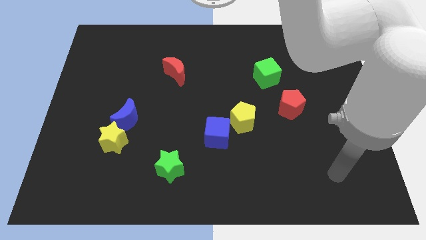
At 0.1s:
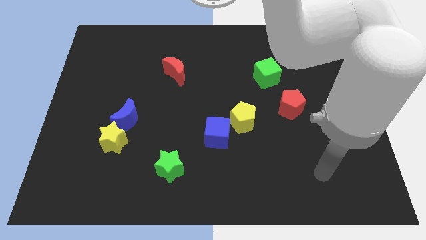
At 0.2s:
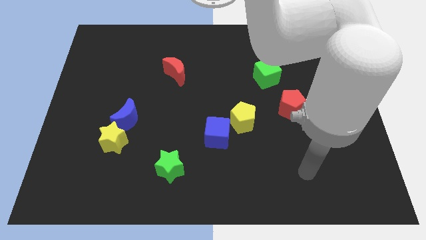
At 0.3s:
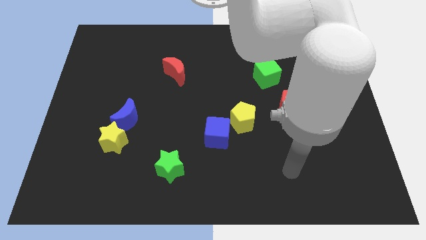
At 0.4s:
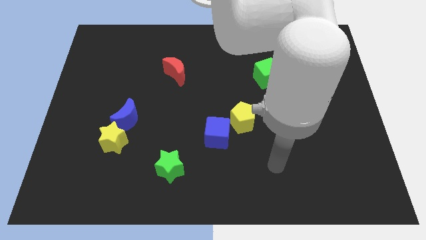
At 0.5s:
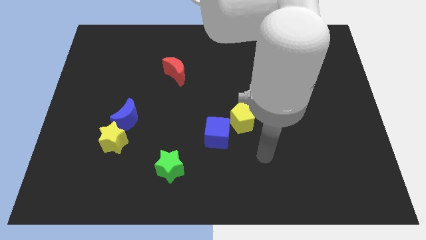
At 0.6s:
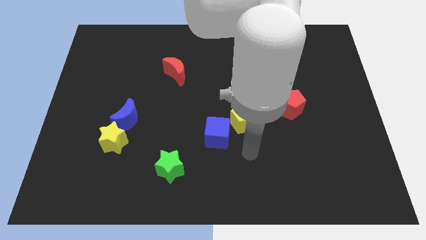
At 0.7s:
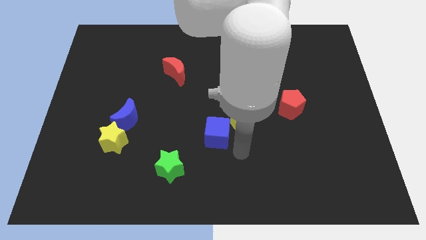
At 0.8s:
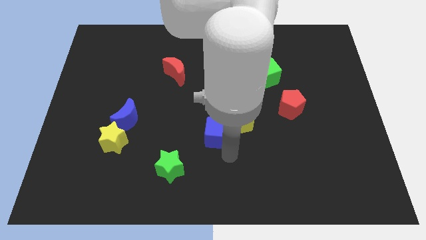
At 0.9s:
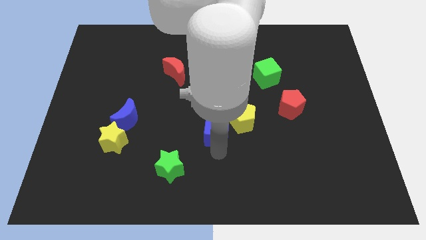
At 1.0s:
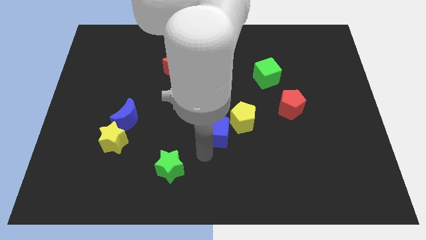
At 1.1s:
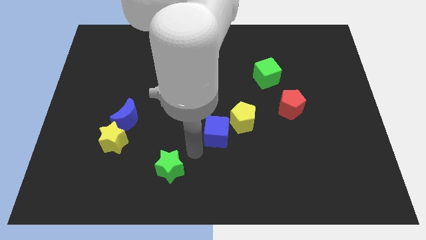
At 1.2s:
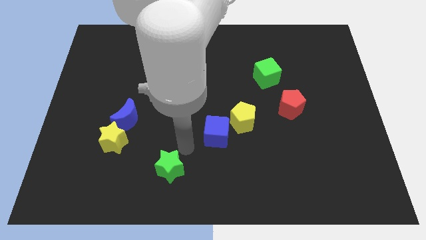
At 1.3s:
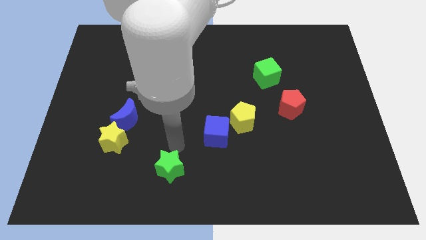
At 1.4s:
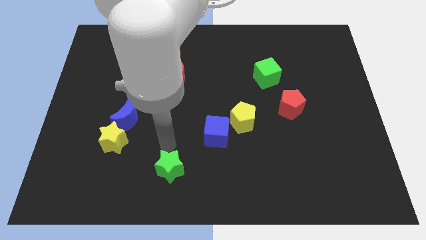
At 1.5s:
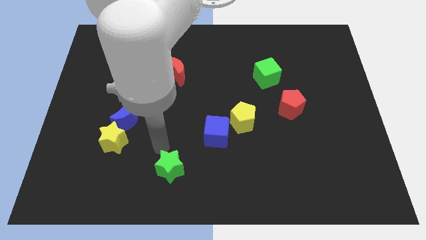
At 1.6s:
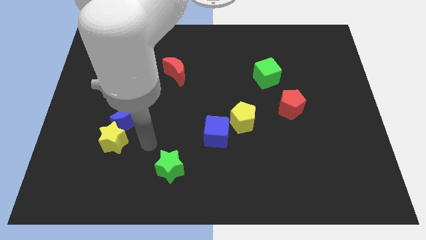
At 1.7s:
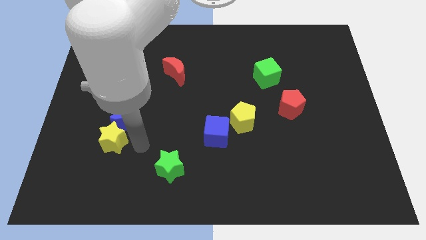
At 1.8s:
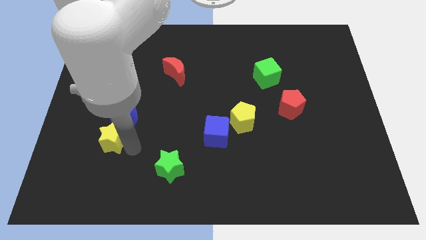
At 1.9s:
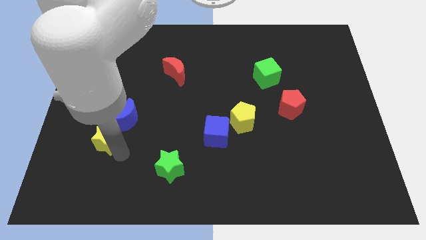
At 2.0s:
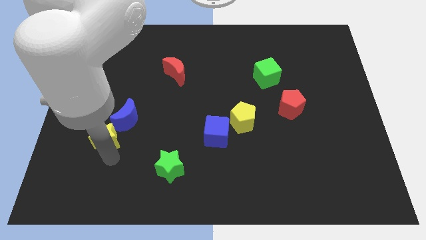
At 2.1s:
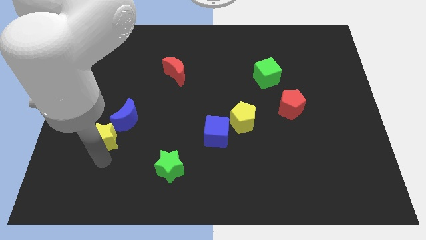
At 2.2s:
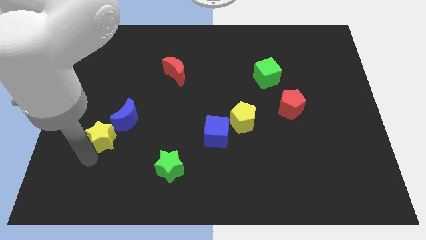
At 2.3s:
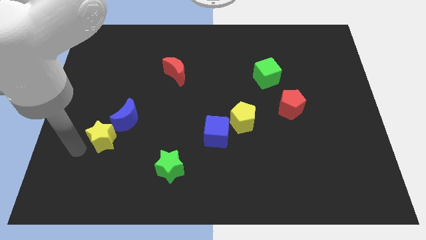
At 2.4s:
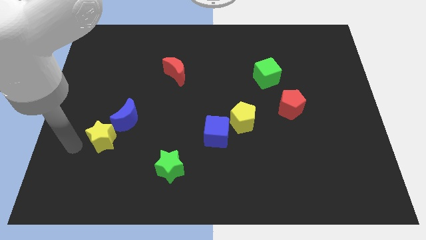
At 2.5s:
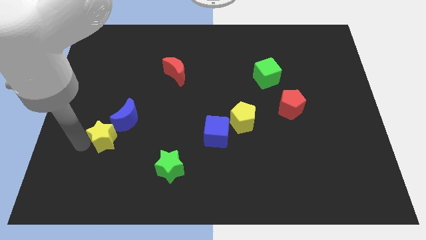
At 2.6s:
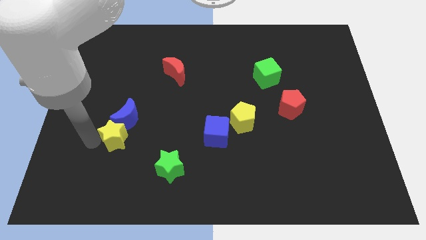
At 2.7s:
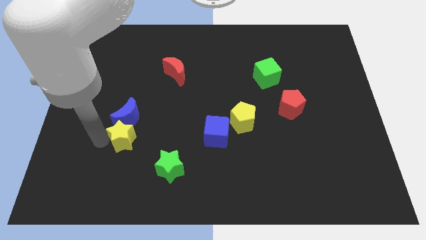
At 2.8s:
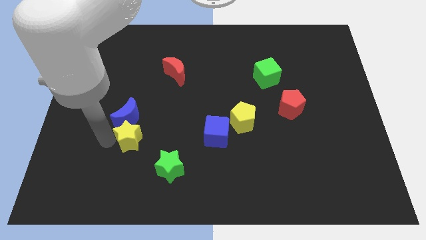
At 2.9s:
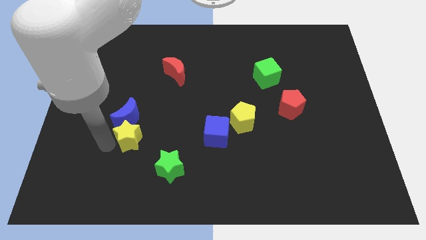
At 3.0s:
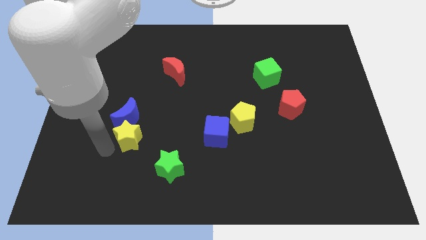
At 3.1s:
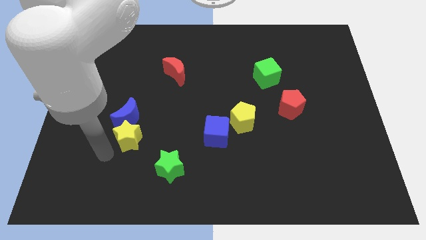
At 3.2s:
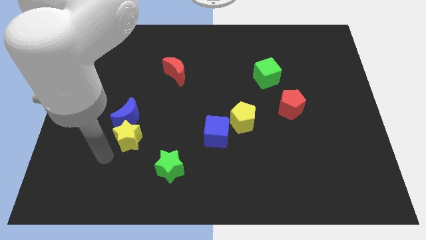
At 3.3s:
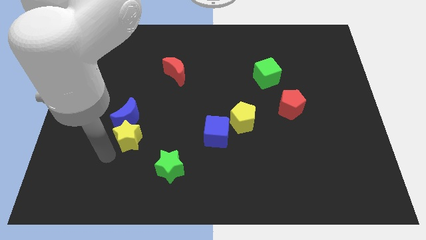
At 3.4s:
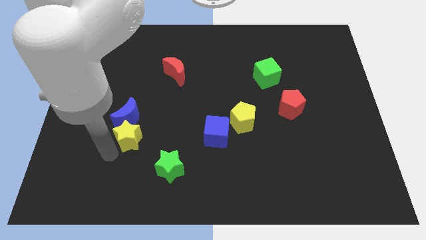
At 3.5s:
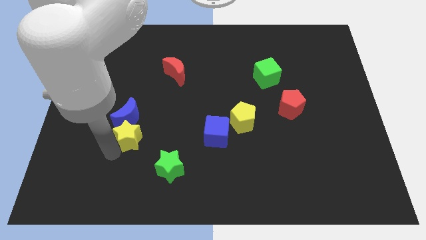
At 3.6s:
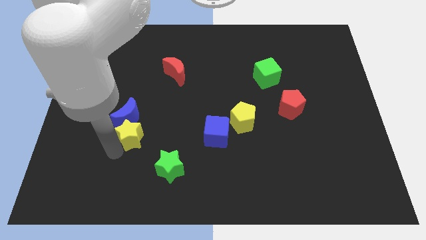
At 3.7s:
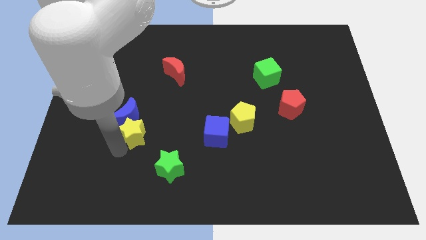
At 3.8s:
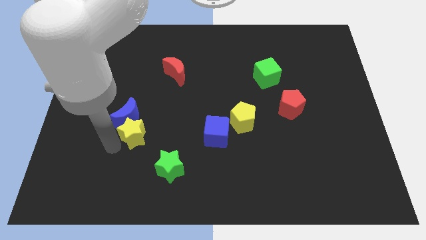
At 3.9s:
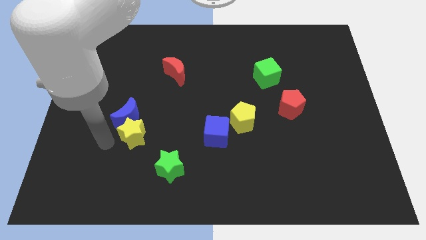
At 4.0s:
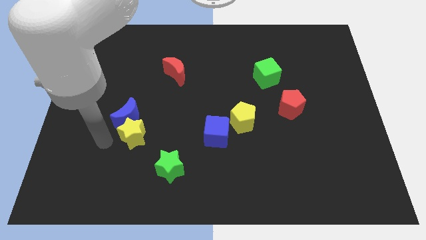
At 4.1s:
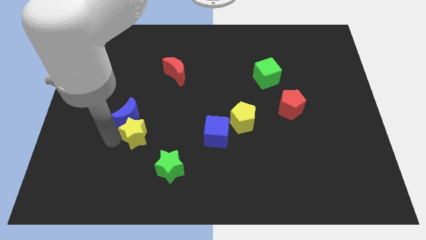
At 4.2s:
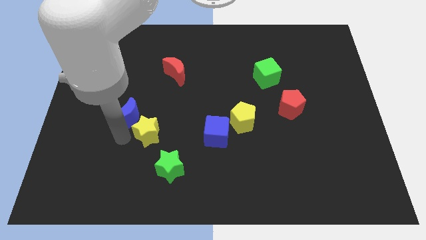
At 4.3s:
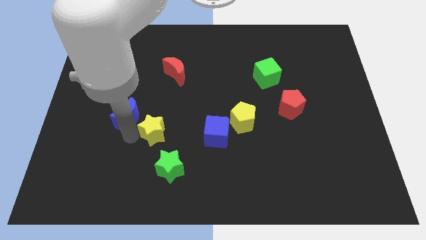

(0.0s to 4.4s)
push the yellow star above the green star

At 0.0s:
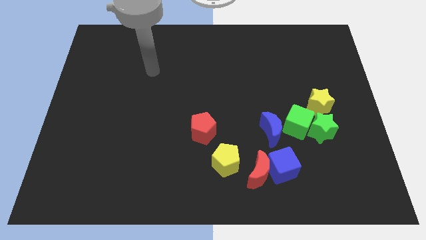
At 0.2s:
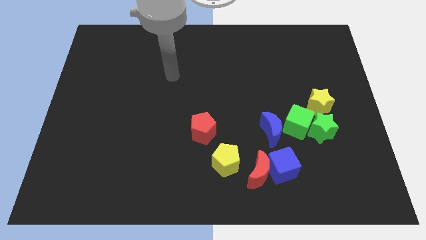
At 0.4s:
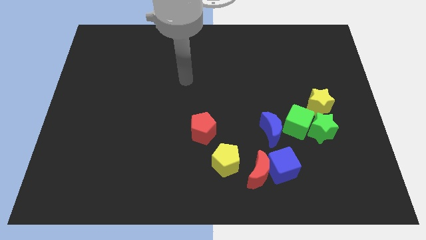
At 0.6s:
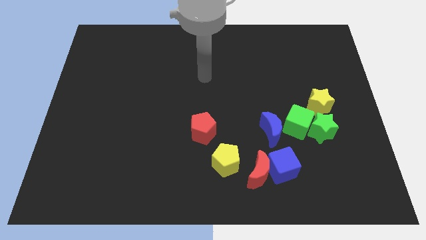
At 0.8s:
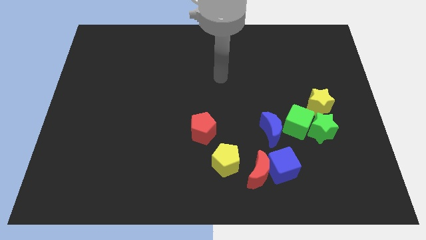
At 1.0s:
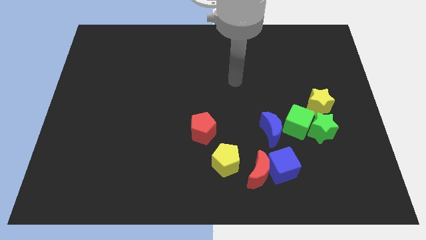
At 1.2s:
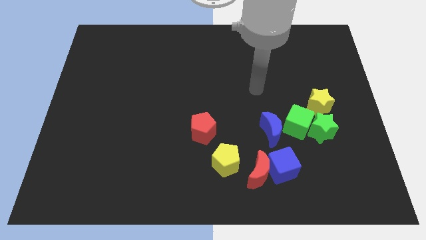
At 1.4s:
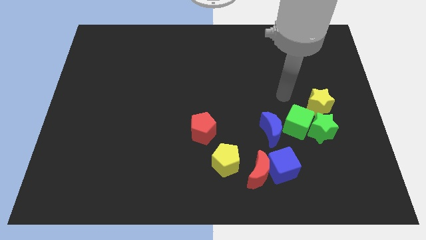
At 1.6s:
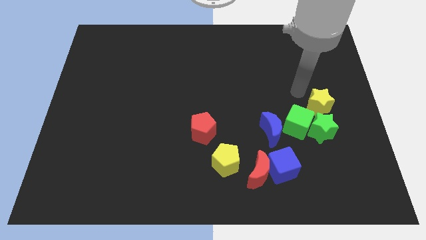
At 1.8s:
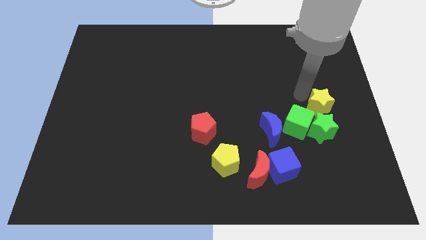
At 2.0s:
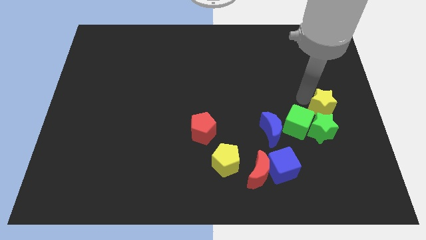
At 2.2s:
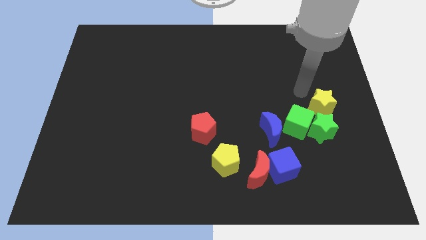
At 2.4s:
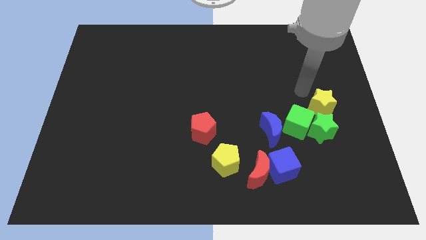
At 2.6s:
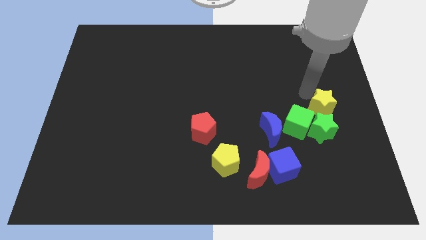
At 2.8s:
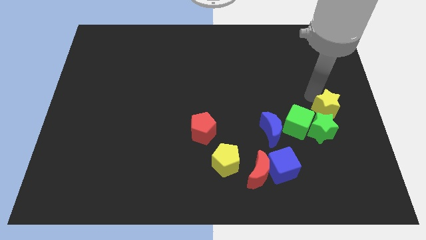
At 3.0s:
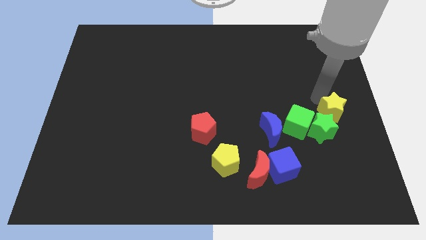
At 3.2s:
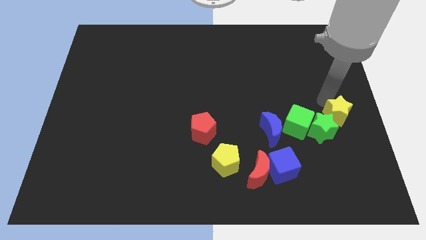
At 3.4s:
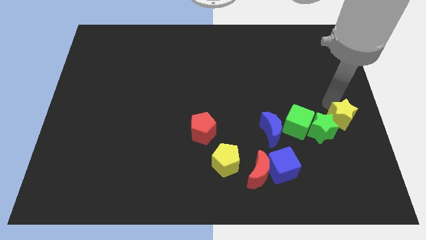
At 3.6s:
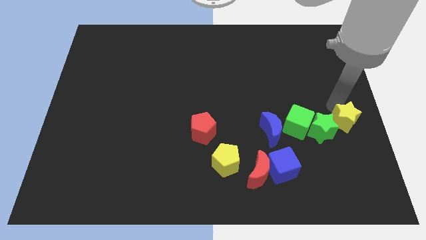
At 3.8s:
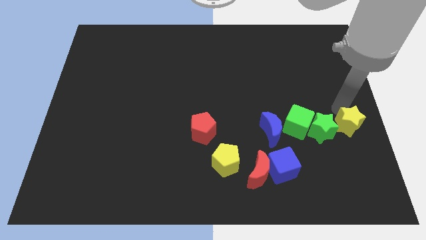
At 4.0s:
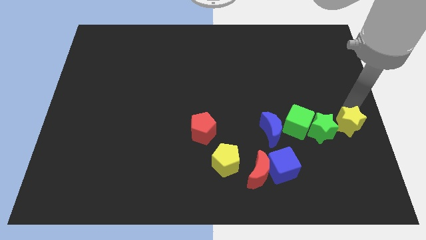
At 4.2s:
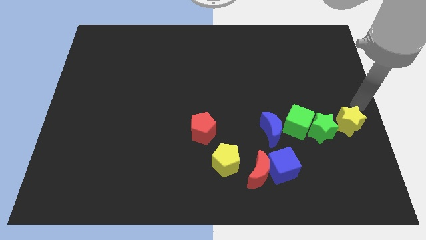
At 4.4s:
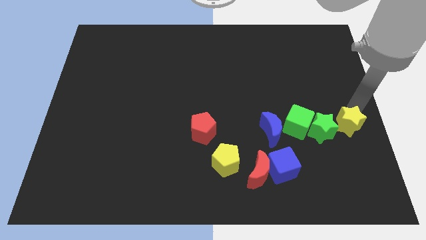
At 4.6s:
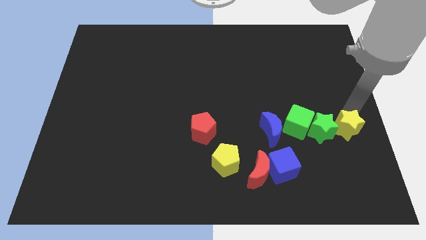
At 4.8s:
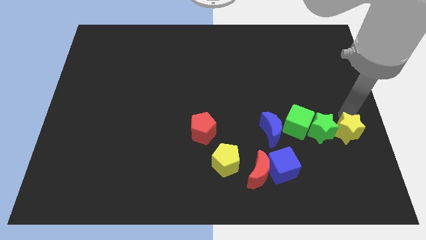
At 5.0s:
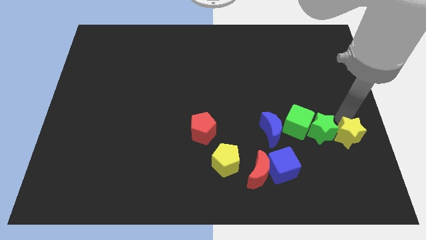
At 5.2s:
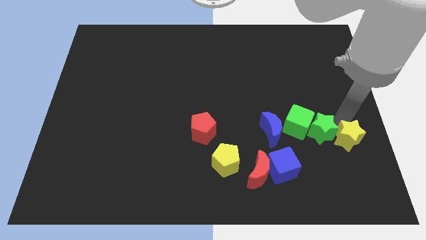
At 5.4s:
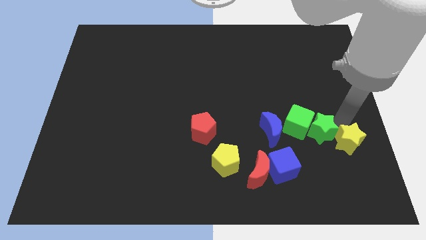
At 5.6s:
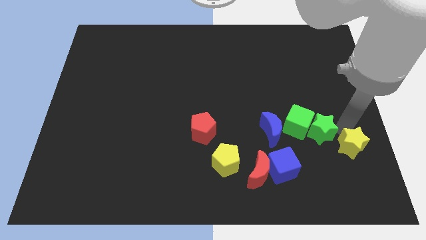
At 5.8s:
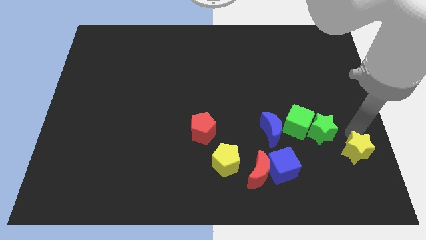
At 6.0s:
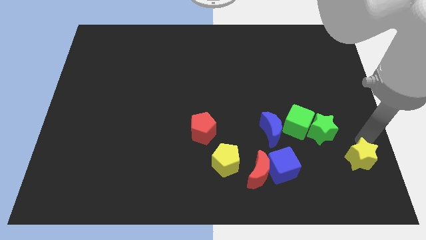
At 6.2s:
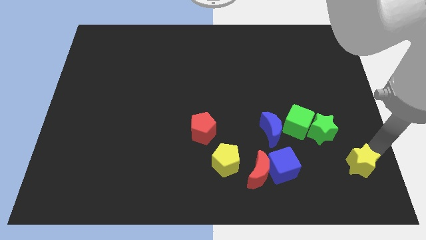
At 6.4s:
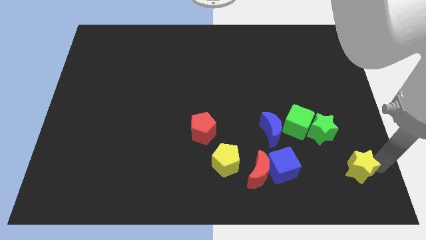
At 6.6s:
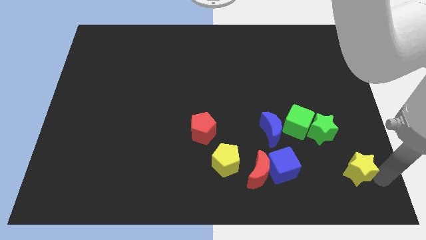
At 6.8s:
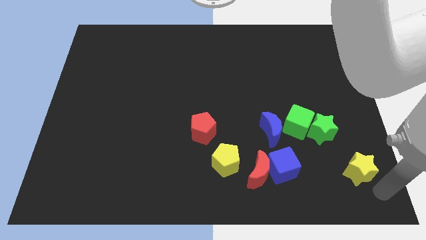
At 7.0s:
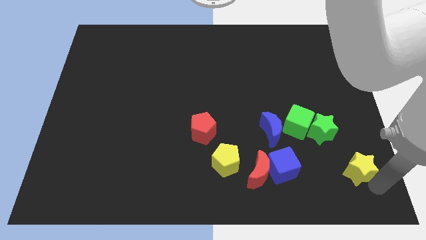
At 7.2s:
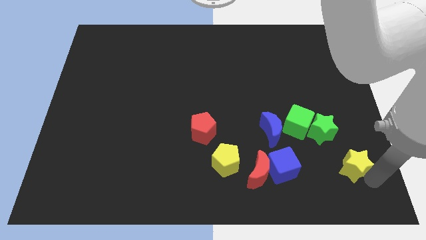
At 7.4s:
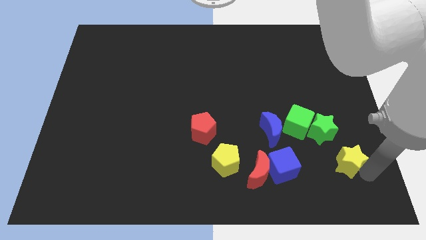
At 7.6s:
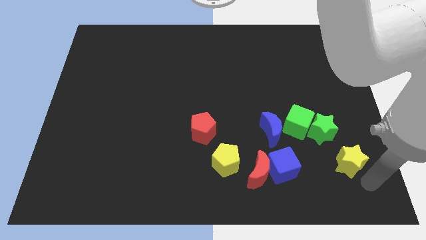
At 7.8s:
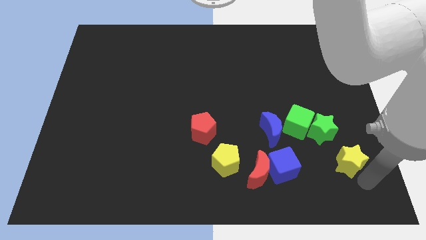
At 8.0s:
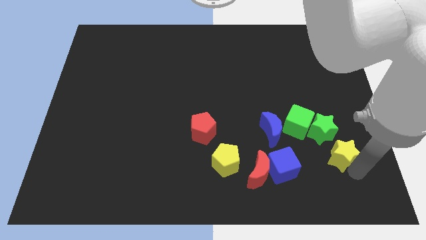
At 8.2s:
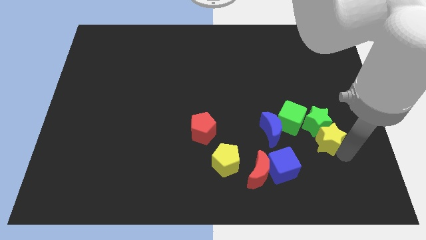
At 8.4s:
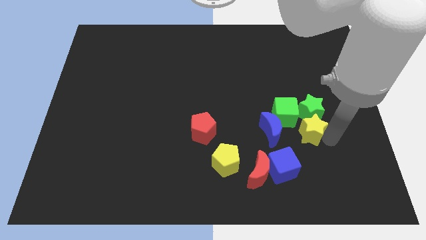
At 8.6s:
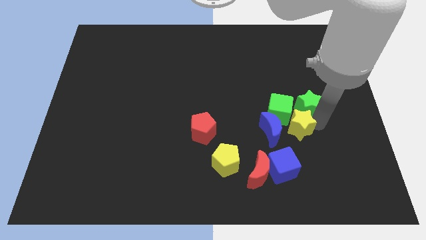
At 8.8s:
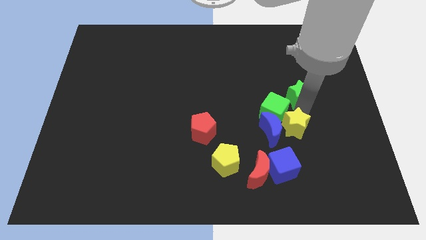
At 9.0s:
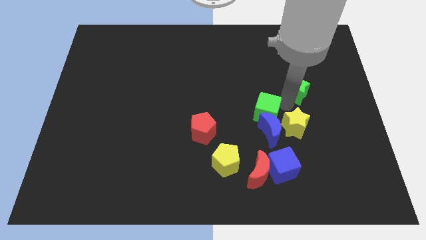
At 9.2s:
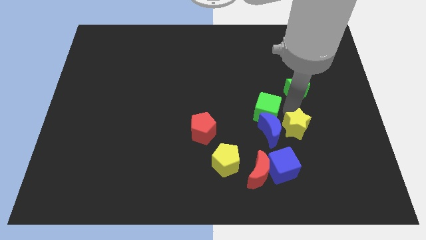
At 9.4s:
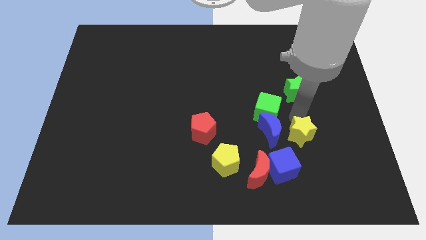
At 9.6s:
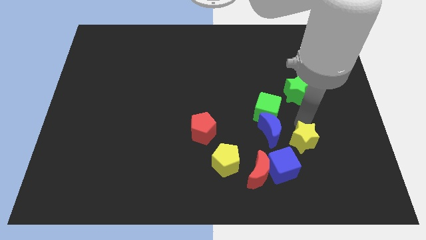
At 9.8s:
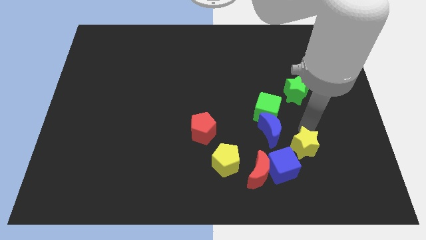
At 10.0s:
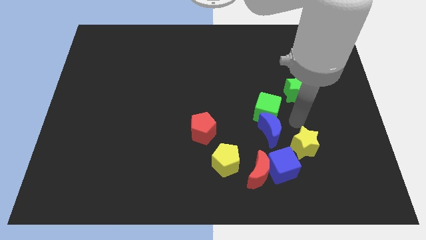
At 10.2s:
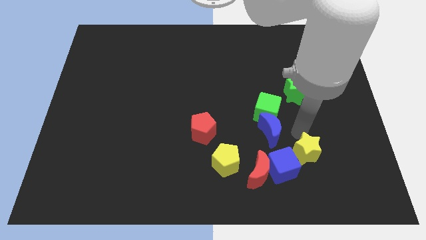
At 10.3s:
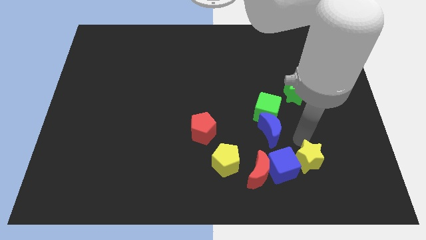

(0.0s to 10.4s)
slide the yellow star just right of the red moon
